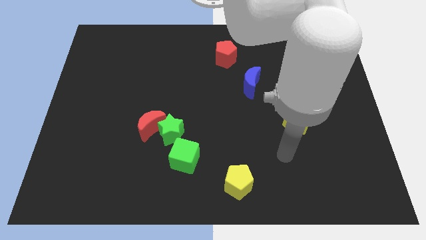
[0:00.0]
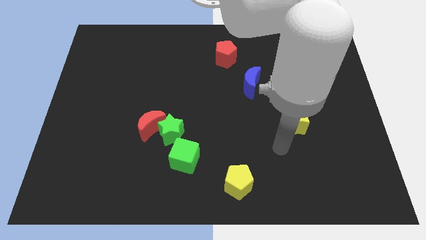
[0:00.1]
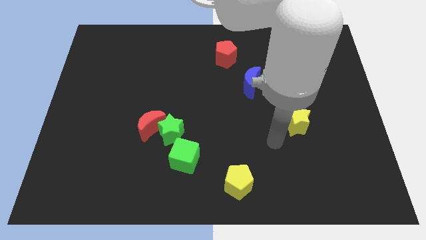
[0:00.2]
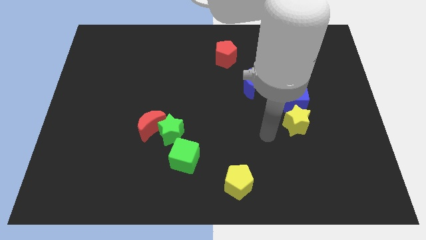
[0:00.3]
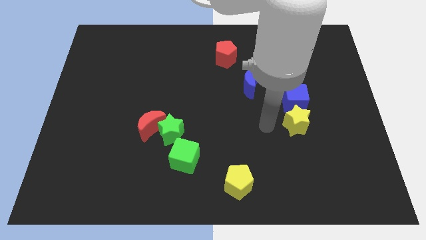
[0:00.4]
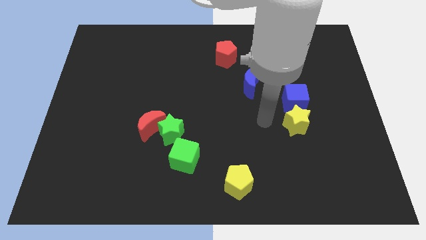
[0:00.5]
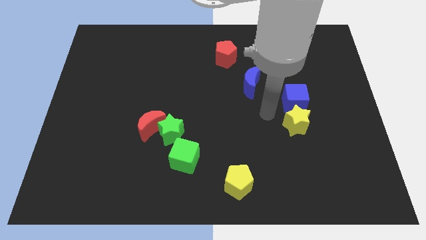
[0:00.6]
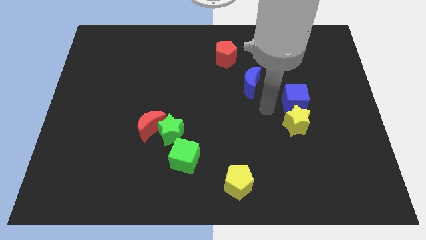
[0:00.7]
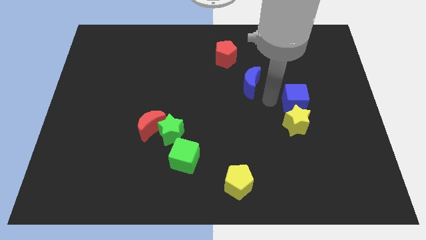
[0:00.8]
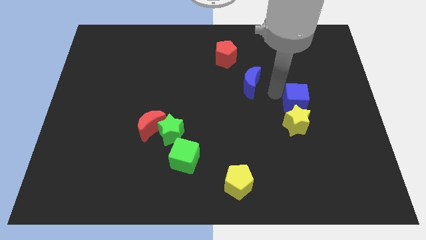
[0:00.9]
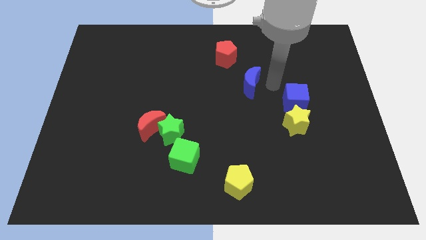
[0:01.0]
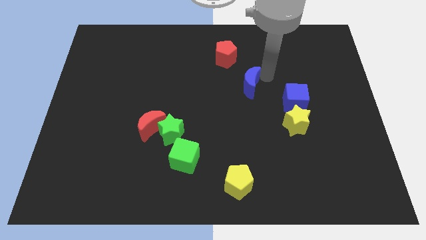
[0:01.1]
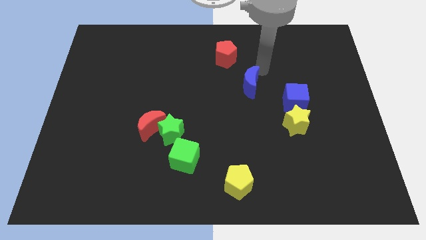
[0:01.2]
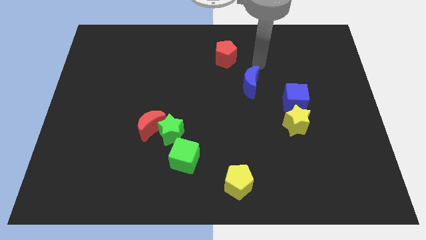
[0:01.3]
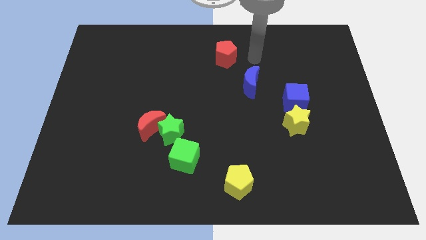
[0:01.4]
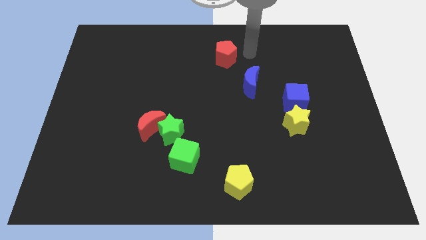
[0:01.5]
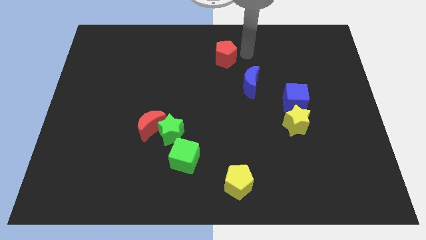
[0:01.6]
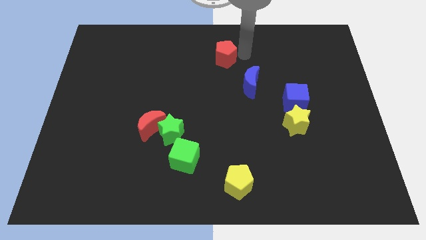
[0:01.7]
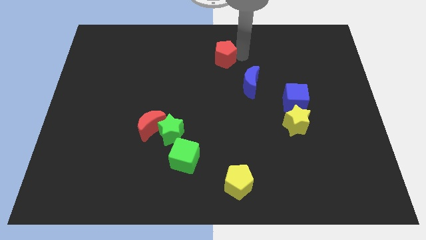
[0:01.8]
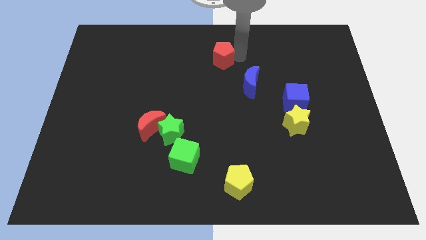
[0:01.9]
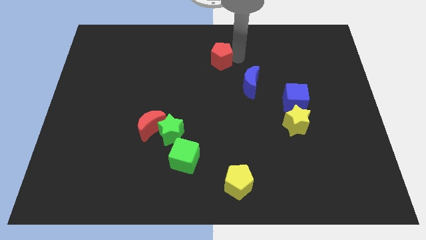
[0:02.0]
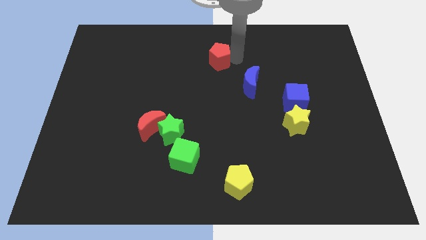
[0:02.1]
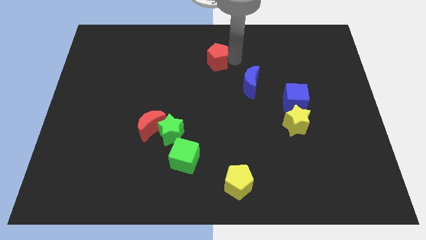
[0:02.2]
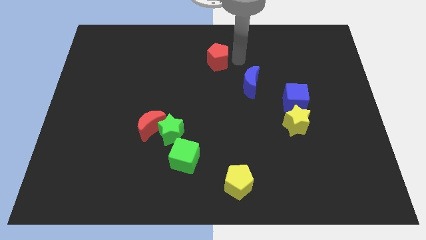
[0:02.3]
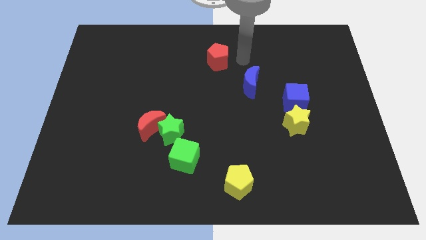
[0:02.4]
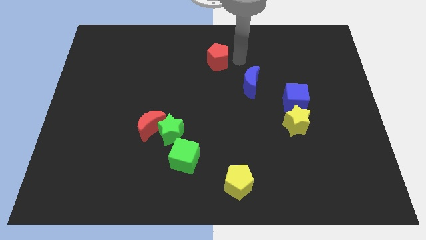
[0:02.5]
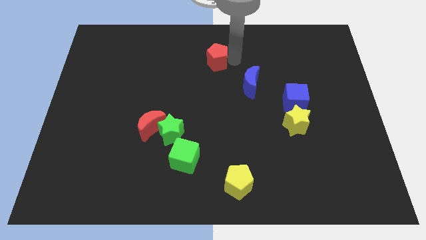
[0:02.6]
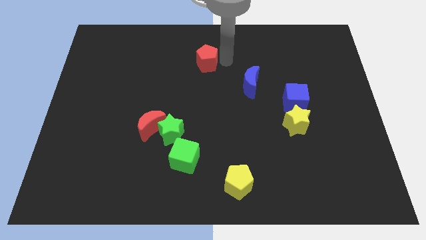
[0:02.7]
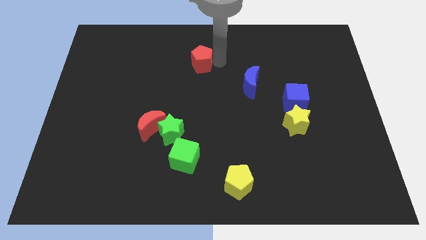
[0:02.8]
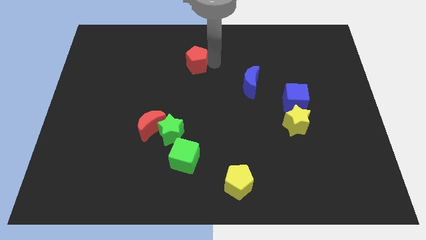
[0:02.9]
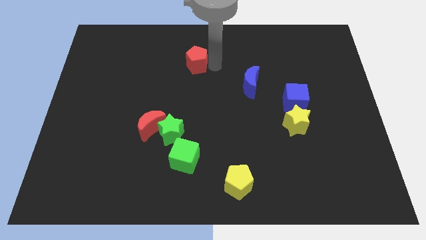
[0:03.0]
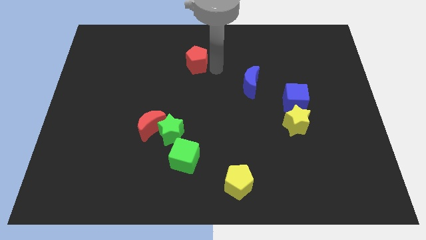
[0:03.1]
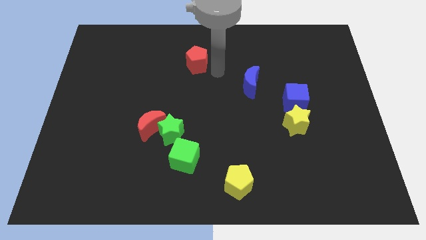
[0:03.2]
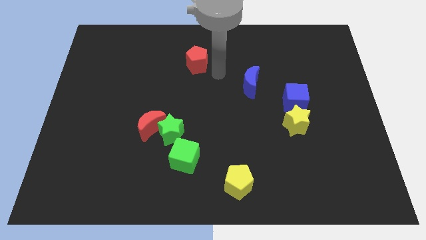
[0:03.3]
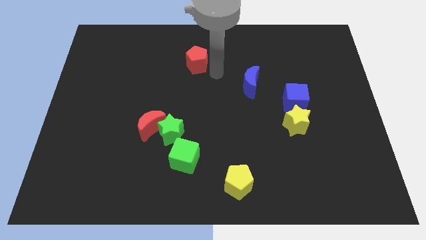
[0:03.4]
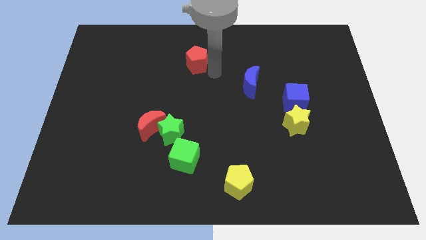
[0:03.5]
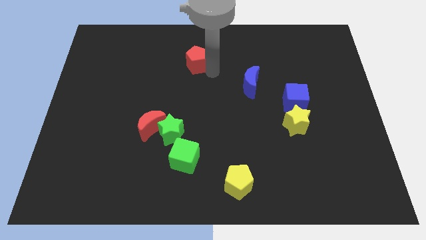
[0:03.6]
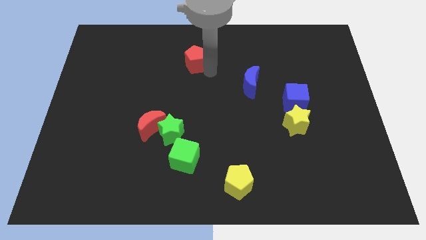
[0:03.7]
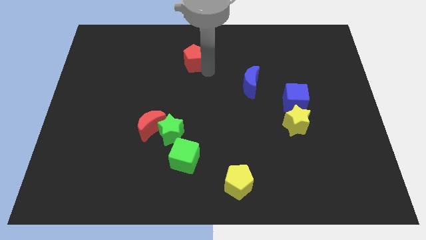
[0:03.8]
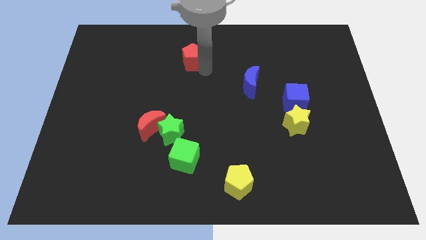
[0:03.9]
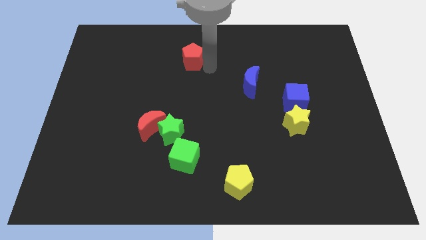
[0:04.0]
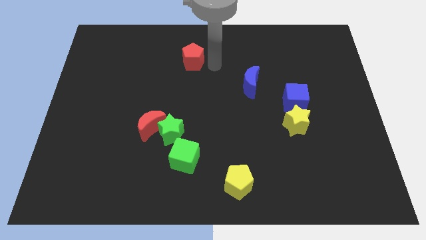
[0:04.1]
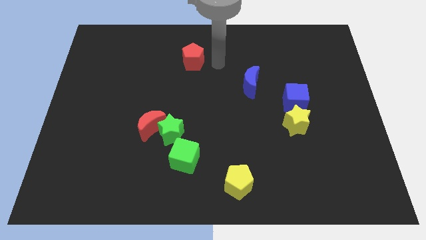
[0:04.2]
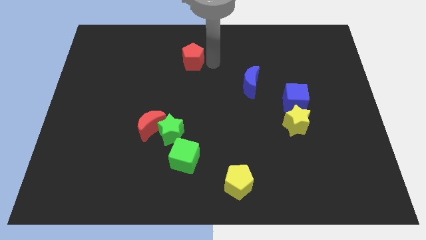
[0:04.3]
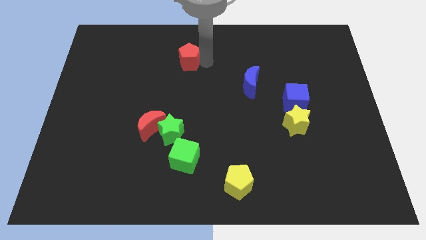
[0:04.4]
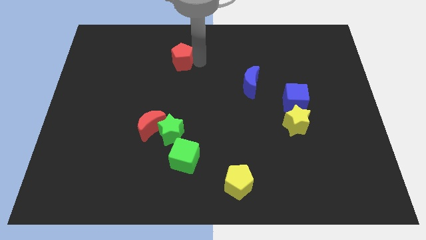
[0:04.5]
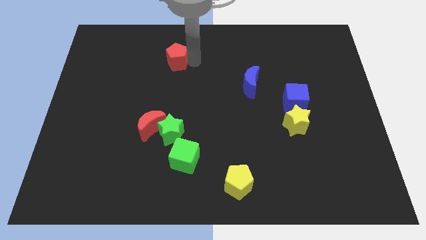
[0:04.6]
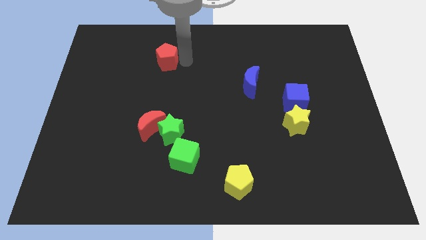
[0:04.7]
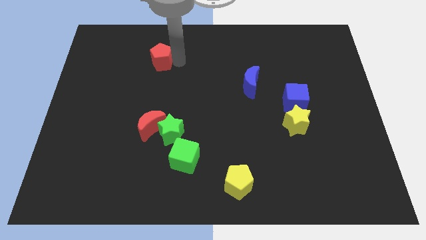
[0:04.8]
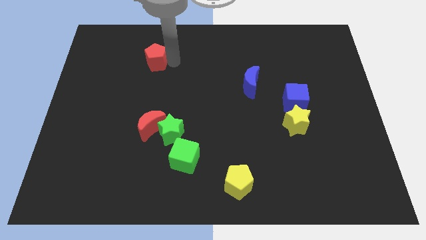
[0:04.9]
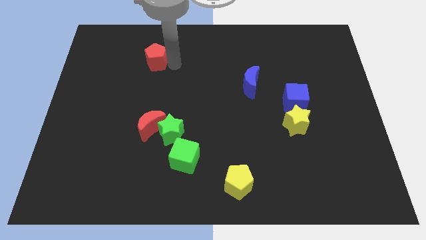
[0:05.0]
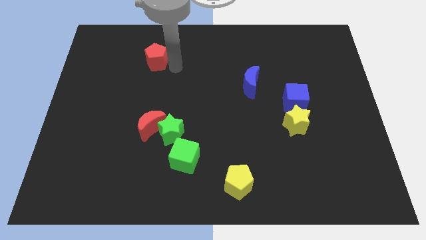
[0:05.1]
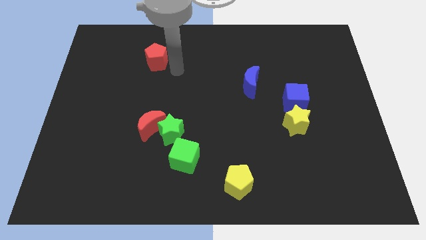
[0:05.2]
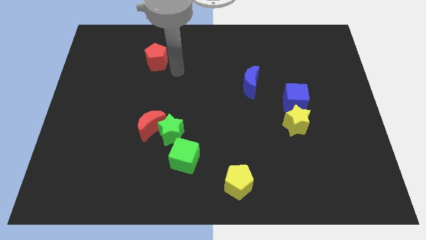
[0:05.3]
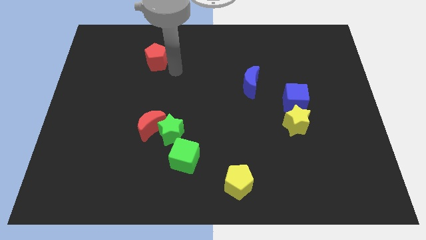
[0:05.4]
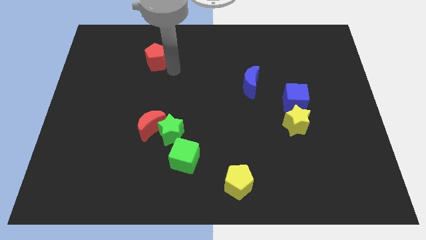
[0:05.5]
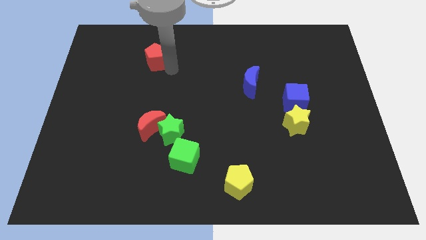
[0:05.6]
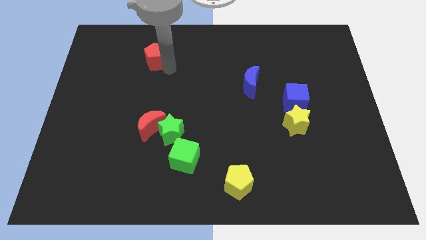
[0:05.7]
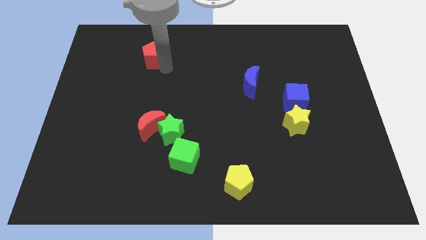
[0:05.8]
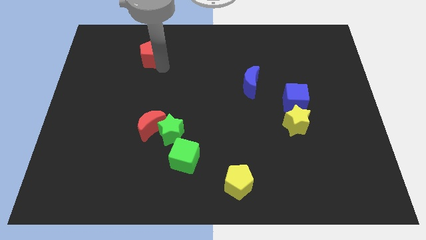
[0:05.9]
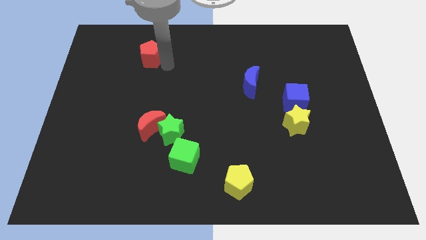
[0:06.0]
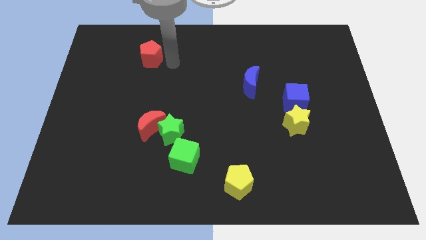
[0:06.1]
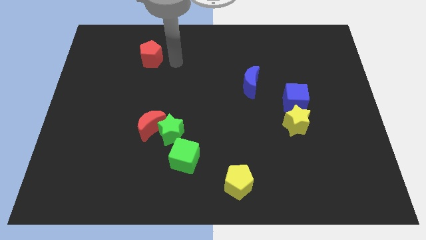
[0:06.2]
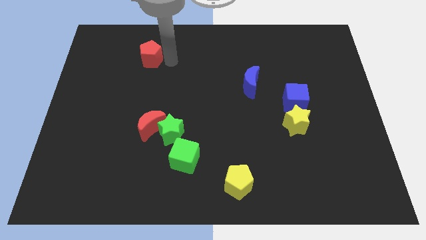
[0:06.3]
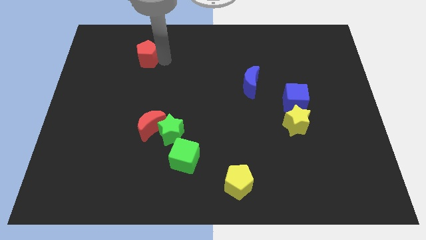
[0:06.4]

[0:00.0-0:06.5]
move the red pentagon to the left

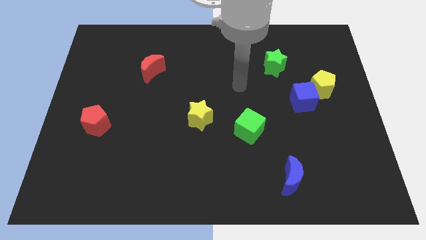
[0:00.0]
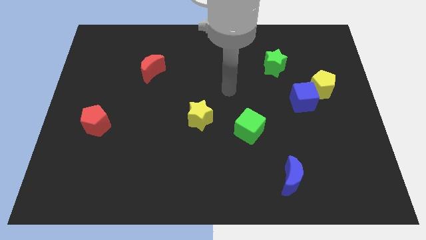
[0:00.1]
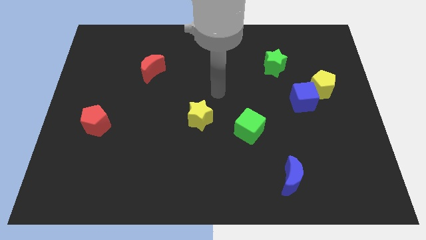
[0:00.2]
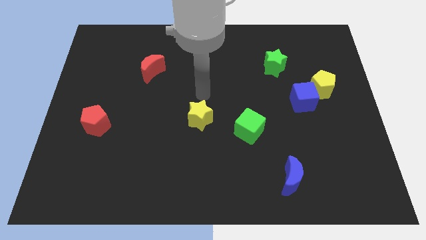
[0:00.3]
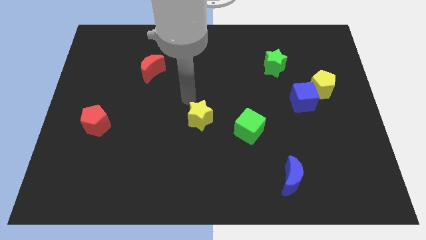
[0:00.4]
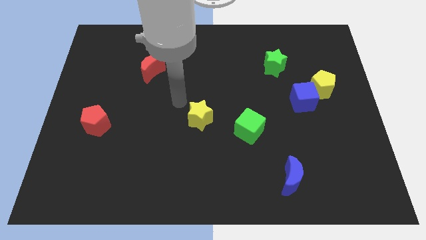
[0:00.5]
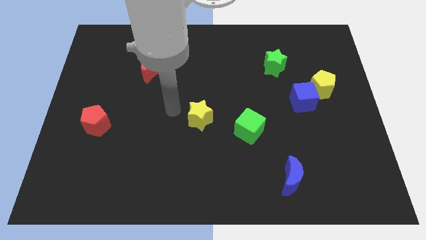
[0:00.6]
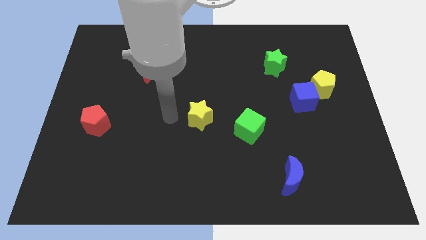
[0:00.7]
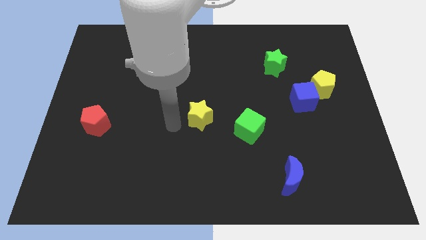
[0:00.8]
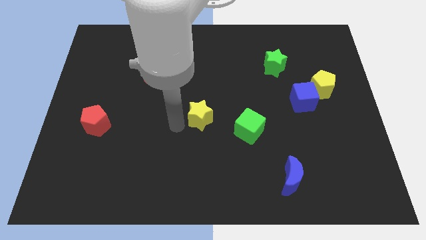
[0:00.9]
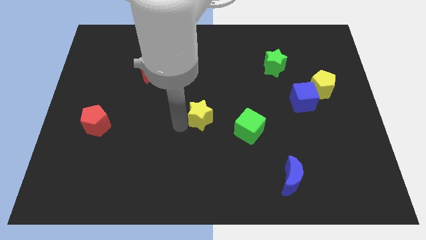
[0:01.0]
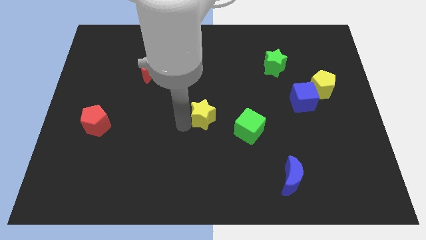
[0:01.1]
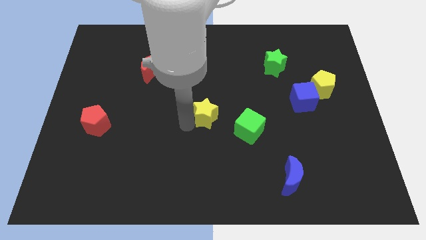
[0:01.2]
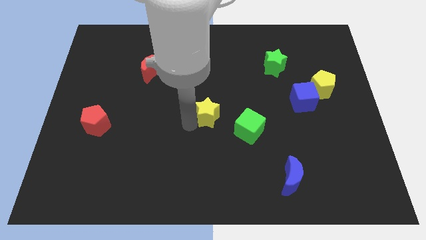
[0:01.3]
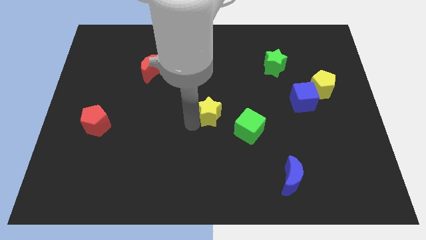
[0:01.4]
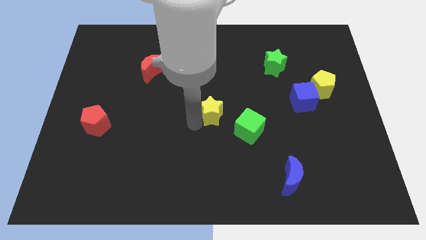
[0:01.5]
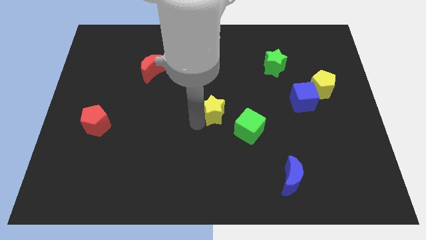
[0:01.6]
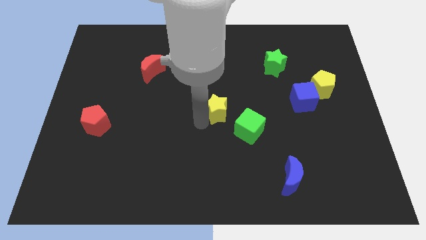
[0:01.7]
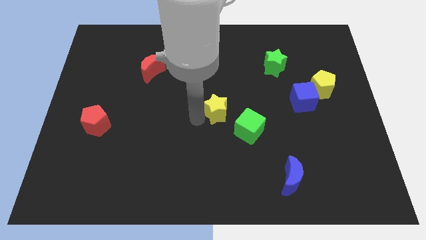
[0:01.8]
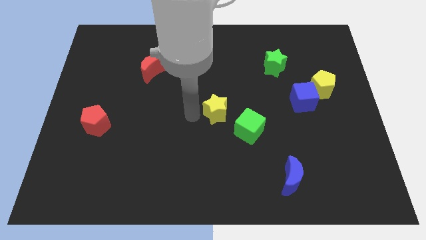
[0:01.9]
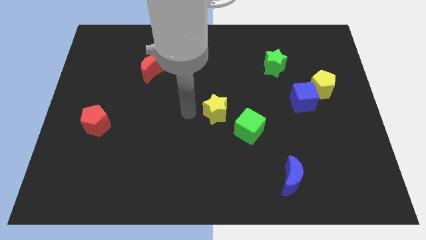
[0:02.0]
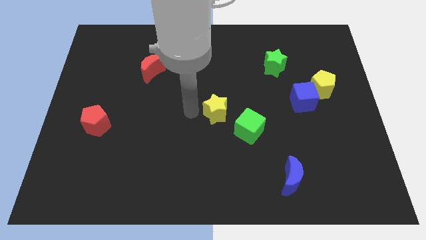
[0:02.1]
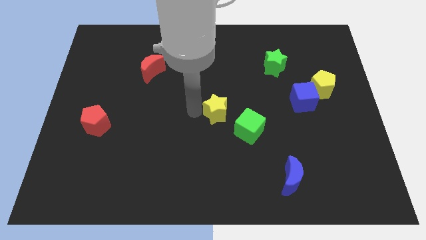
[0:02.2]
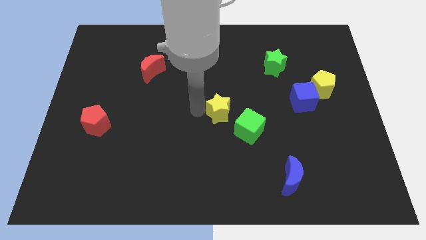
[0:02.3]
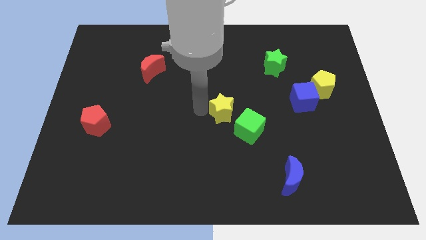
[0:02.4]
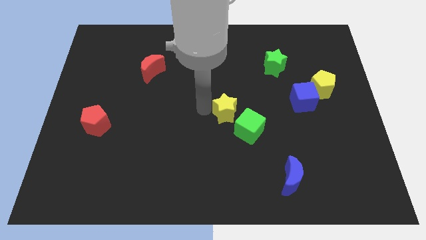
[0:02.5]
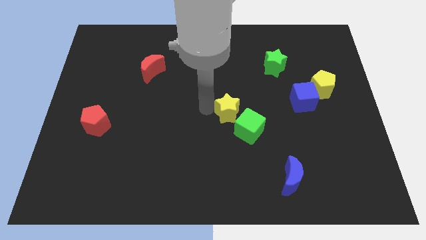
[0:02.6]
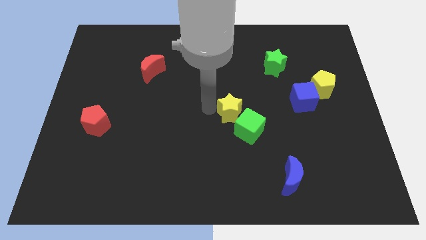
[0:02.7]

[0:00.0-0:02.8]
slide the yellow star to the right a bit
